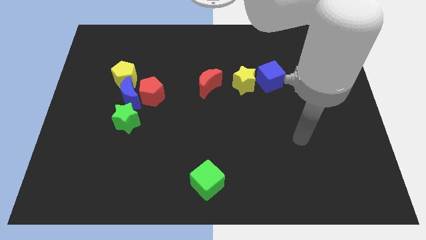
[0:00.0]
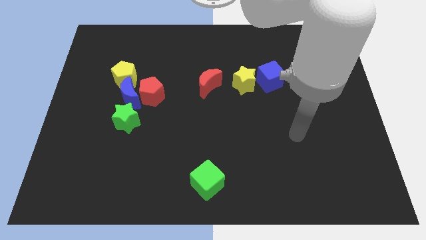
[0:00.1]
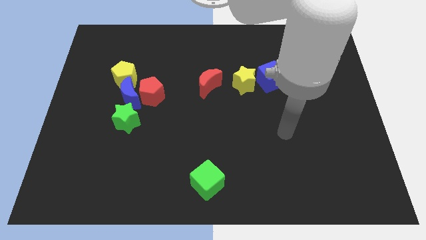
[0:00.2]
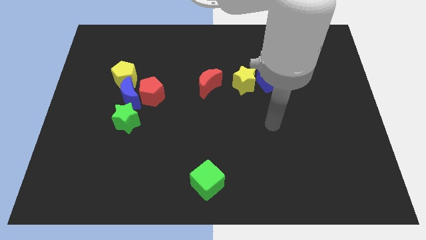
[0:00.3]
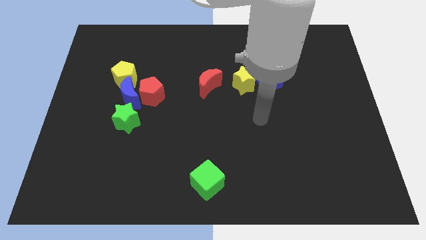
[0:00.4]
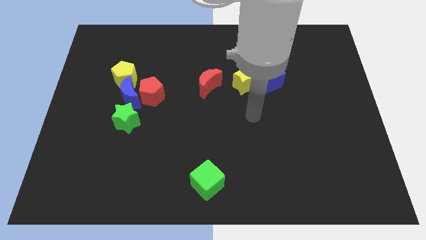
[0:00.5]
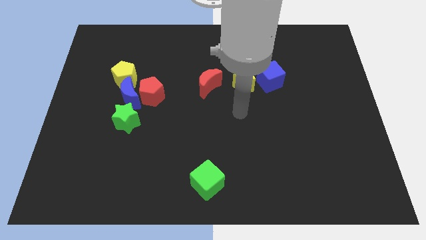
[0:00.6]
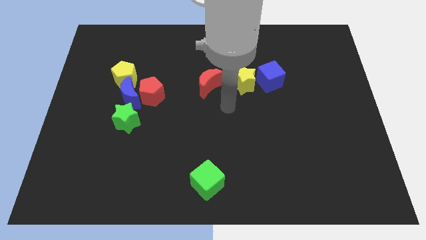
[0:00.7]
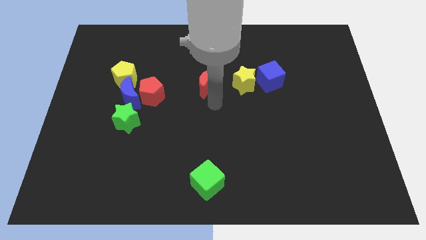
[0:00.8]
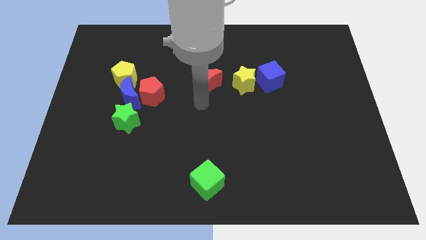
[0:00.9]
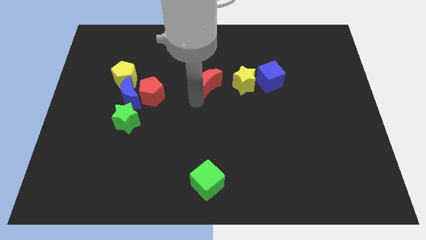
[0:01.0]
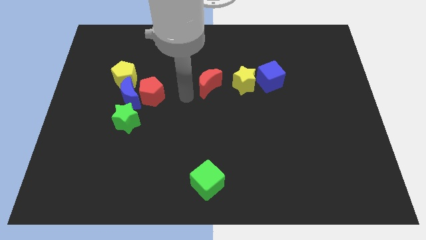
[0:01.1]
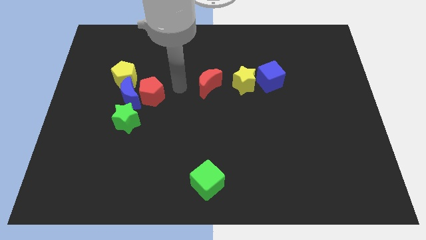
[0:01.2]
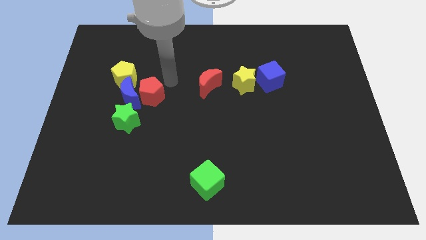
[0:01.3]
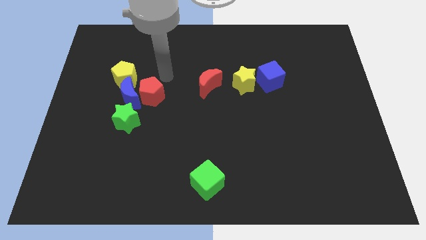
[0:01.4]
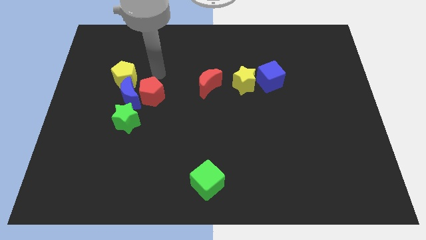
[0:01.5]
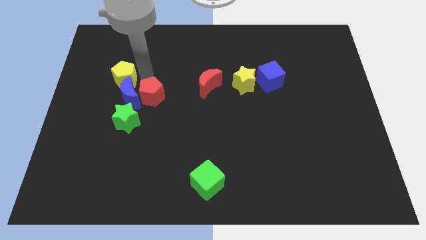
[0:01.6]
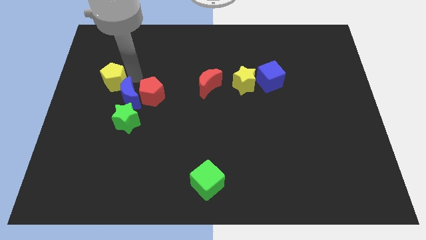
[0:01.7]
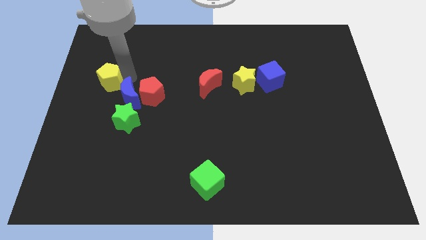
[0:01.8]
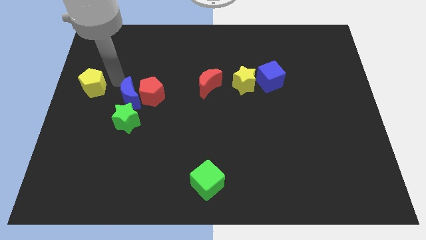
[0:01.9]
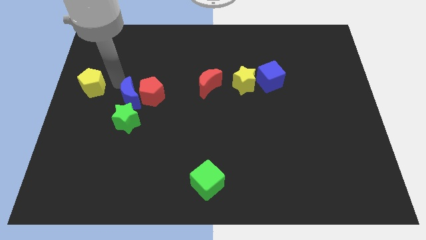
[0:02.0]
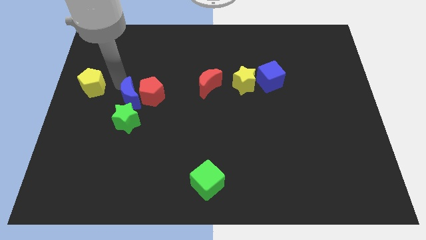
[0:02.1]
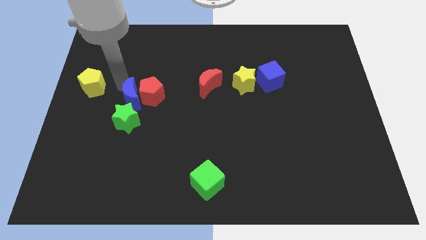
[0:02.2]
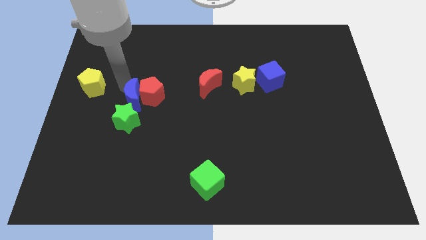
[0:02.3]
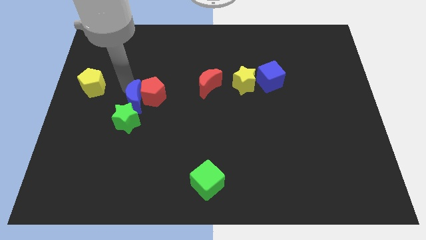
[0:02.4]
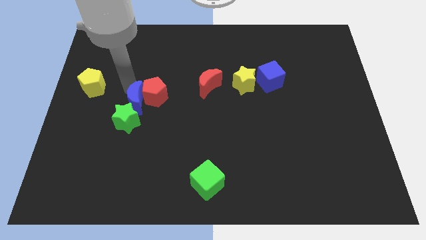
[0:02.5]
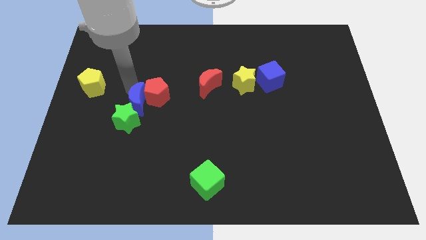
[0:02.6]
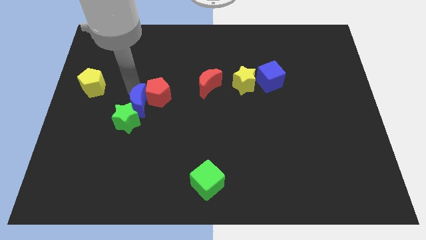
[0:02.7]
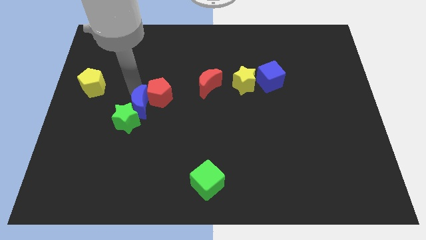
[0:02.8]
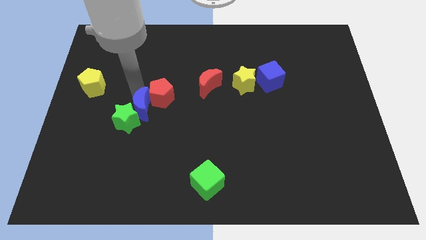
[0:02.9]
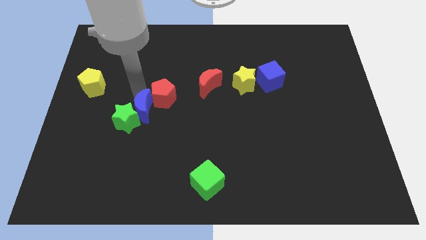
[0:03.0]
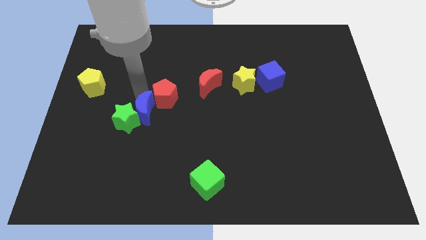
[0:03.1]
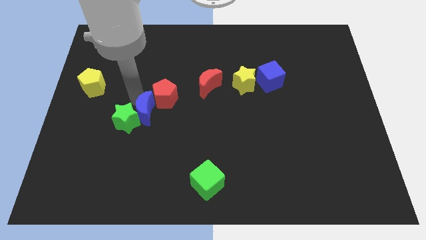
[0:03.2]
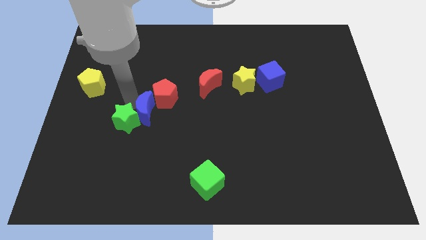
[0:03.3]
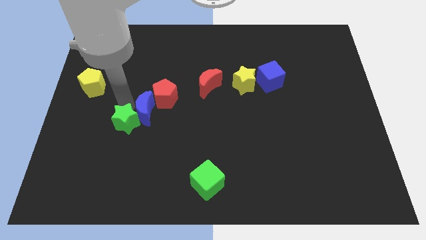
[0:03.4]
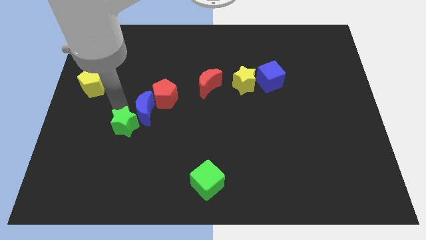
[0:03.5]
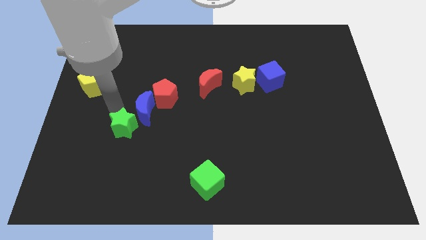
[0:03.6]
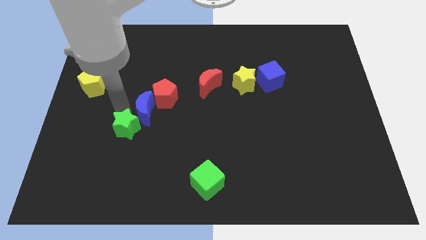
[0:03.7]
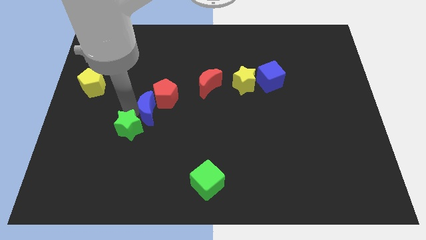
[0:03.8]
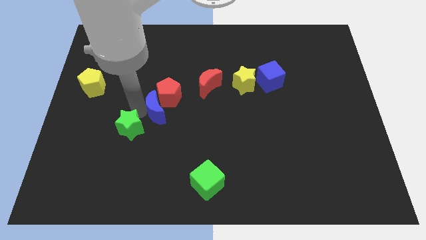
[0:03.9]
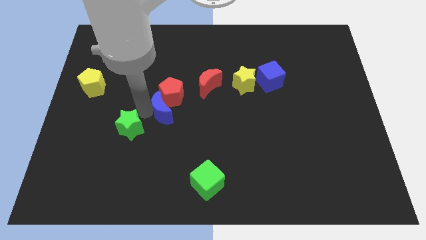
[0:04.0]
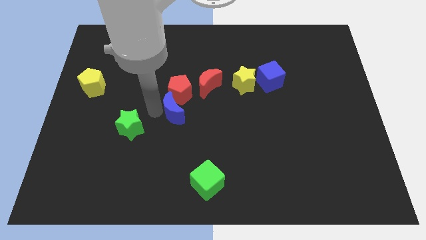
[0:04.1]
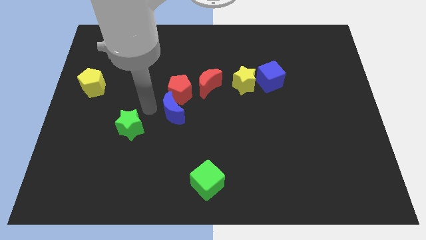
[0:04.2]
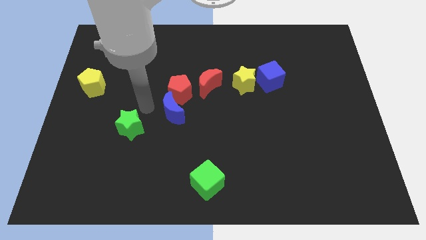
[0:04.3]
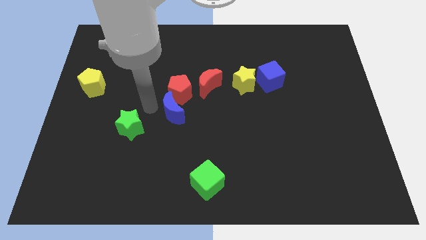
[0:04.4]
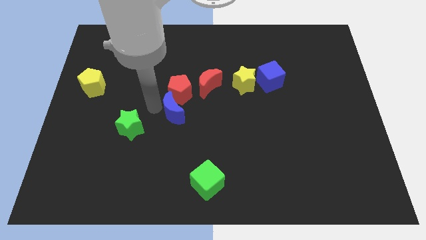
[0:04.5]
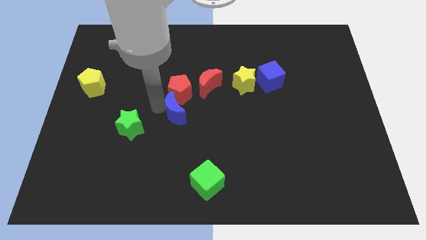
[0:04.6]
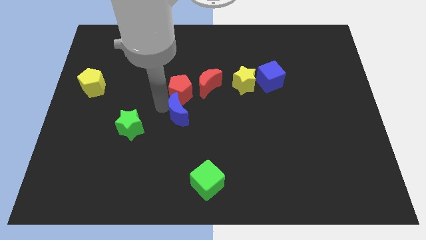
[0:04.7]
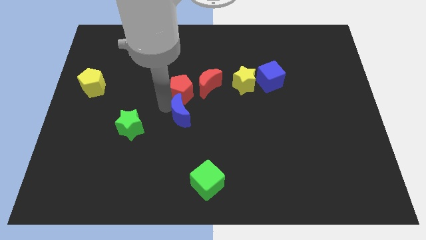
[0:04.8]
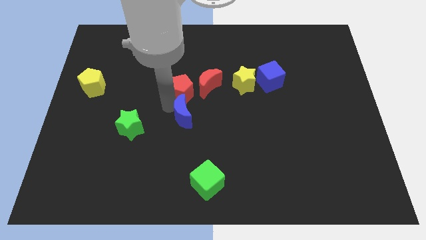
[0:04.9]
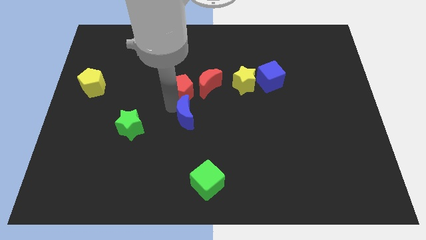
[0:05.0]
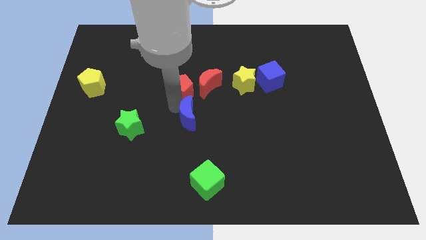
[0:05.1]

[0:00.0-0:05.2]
move the blue moon below the red moon

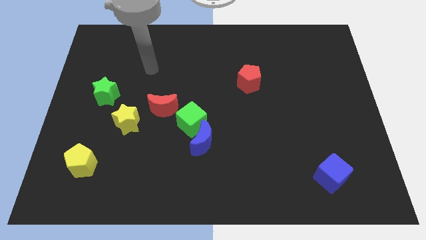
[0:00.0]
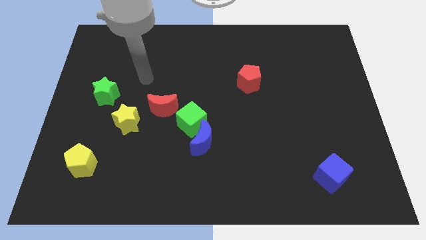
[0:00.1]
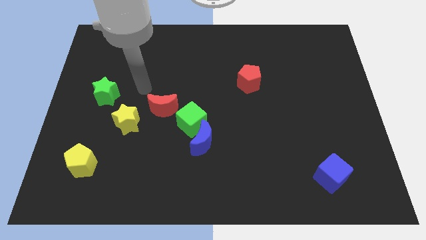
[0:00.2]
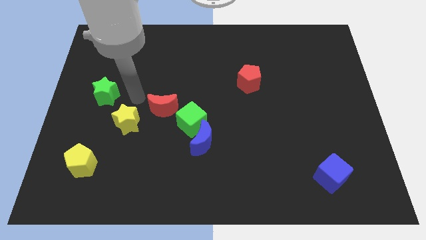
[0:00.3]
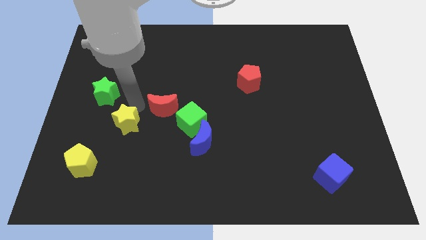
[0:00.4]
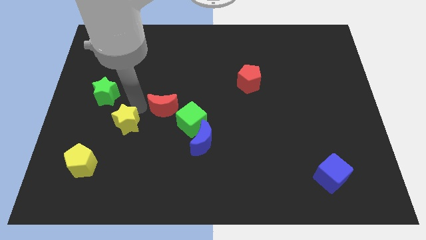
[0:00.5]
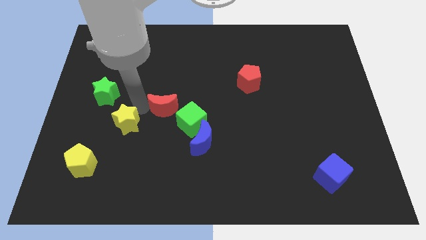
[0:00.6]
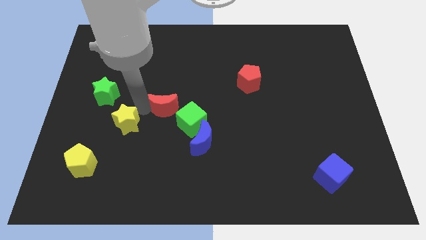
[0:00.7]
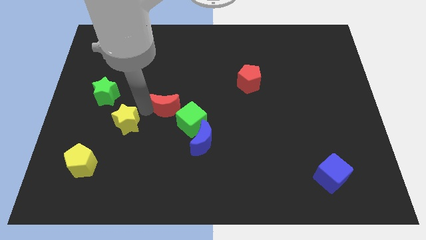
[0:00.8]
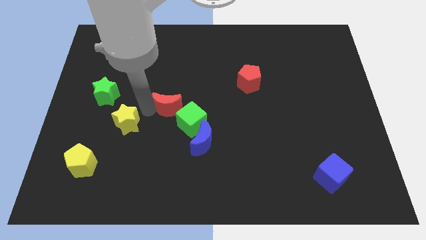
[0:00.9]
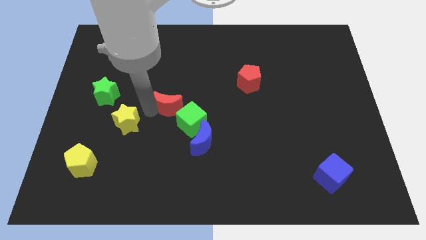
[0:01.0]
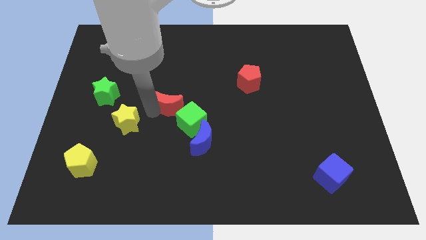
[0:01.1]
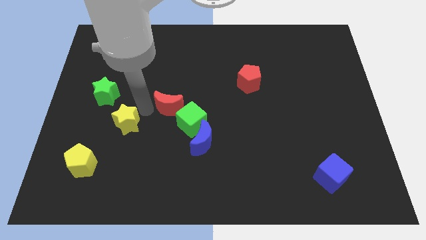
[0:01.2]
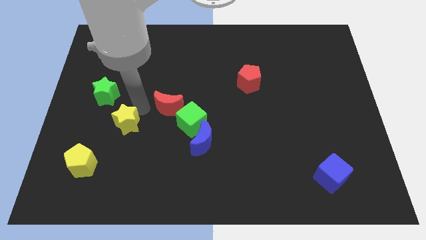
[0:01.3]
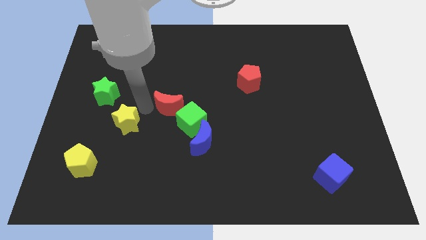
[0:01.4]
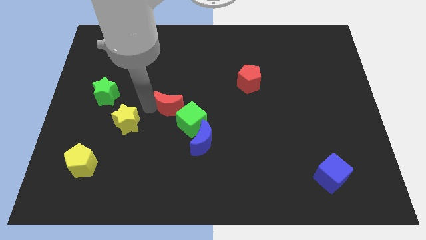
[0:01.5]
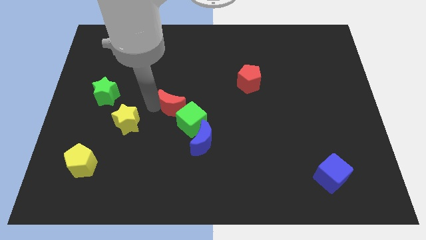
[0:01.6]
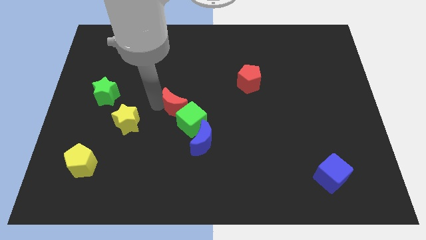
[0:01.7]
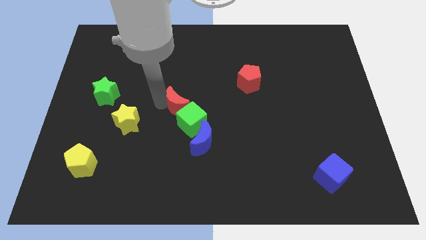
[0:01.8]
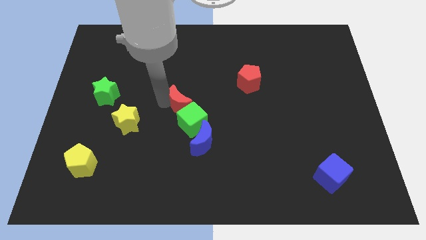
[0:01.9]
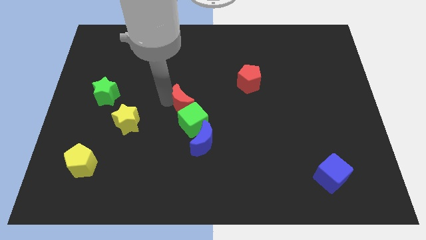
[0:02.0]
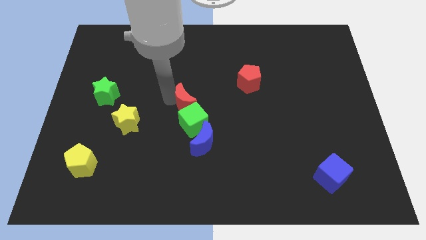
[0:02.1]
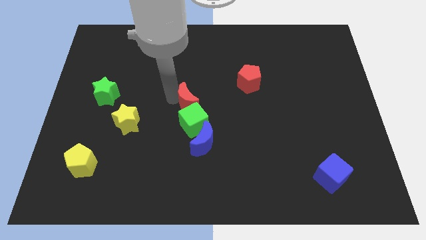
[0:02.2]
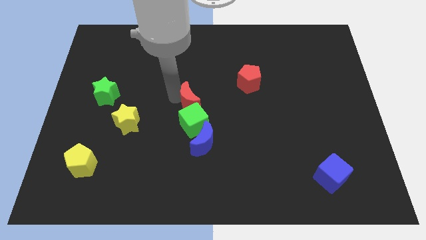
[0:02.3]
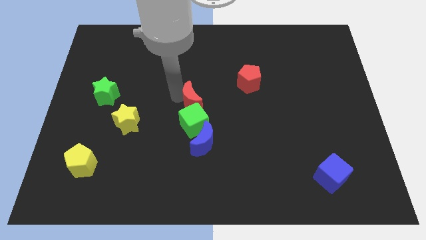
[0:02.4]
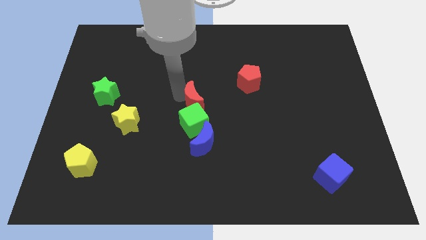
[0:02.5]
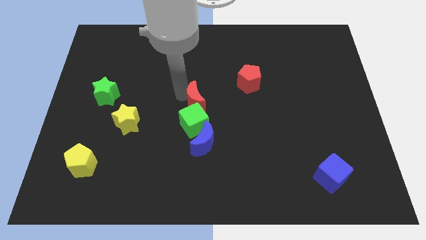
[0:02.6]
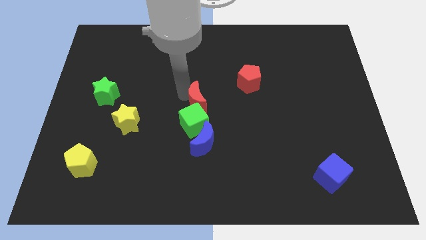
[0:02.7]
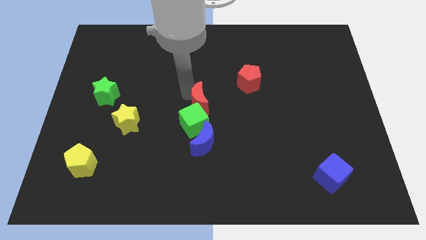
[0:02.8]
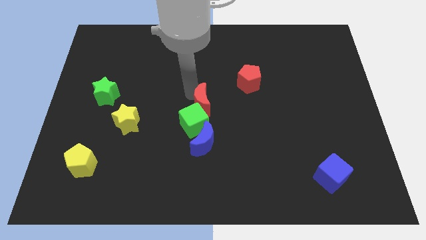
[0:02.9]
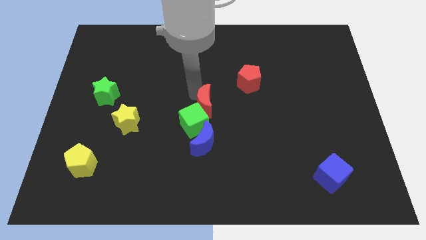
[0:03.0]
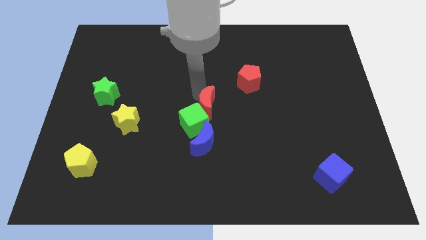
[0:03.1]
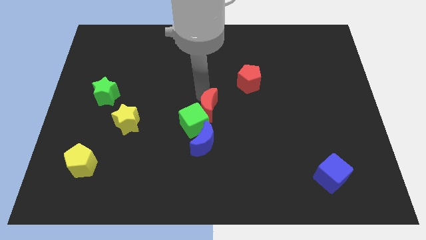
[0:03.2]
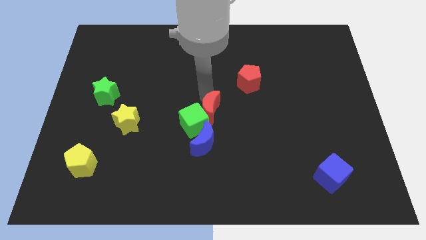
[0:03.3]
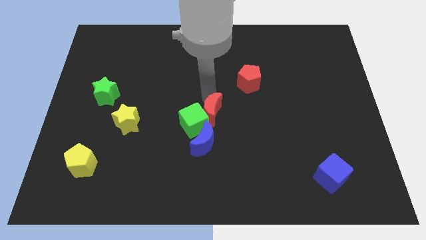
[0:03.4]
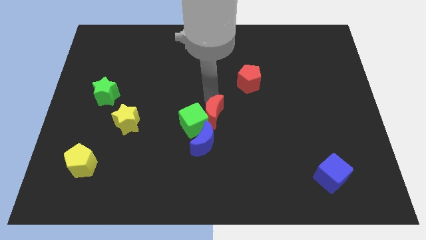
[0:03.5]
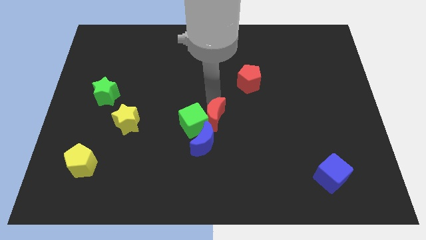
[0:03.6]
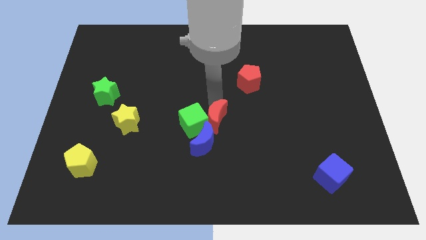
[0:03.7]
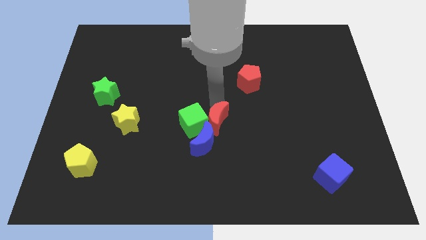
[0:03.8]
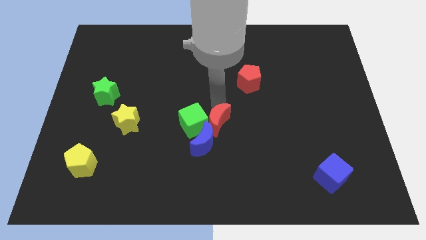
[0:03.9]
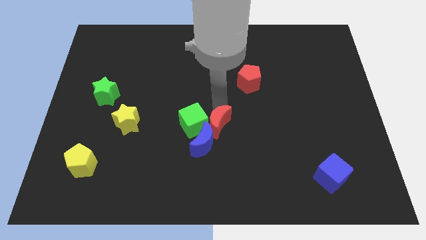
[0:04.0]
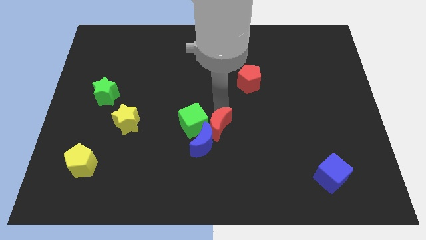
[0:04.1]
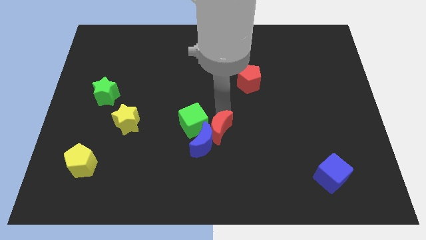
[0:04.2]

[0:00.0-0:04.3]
move the red moon right of the blue moon
